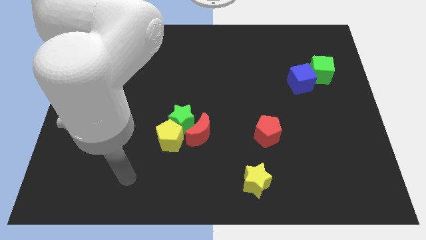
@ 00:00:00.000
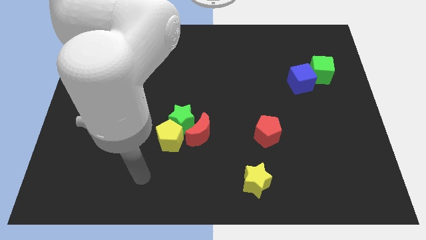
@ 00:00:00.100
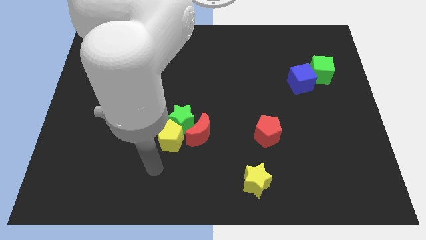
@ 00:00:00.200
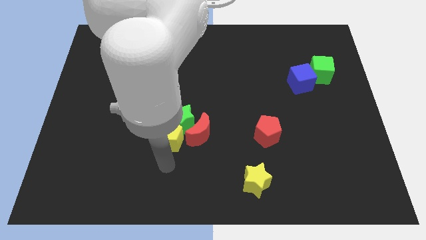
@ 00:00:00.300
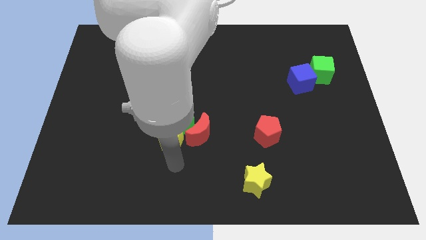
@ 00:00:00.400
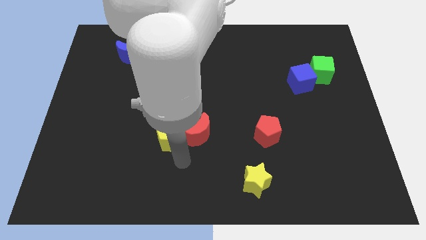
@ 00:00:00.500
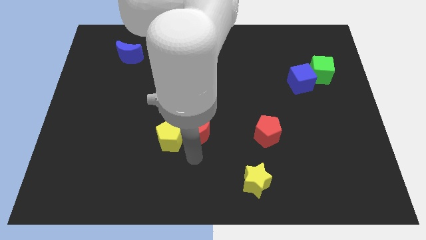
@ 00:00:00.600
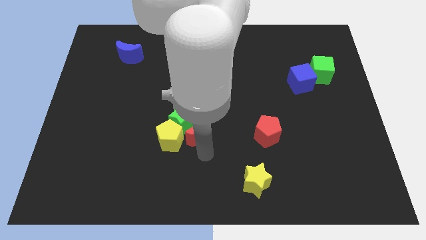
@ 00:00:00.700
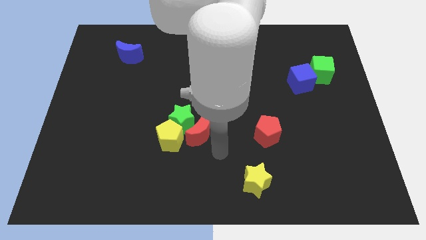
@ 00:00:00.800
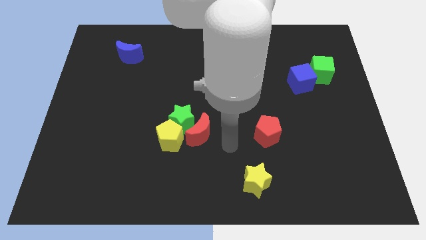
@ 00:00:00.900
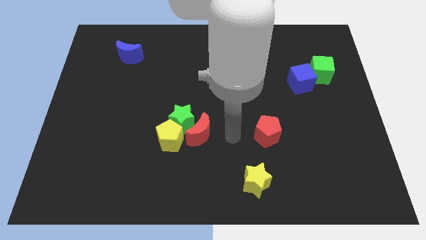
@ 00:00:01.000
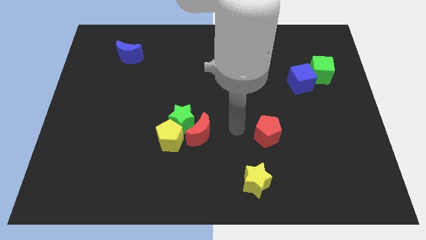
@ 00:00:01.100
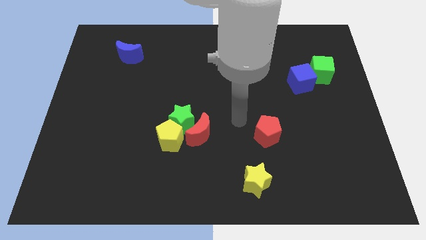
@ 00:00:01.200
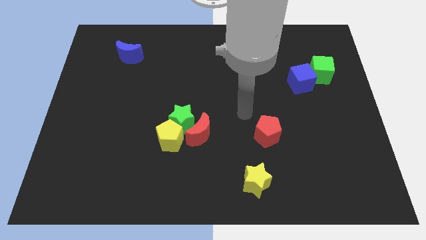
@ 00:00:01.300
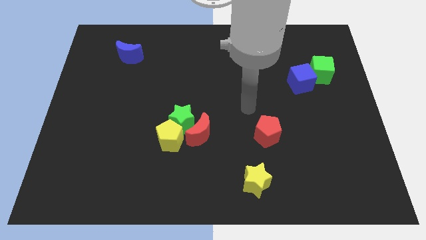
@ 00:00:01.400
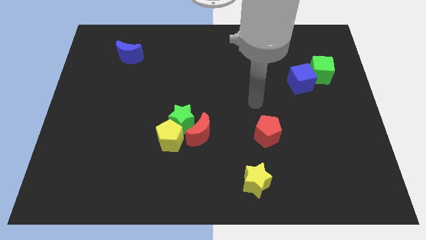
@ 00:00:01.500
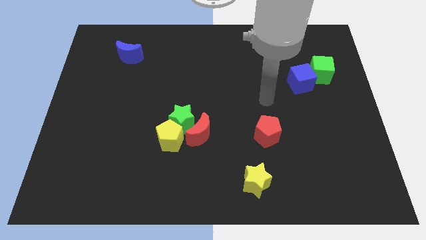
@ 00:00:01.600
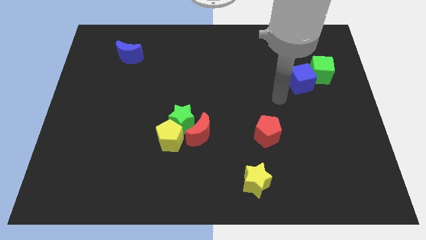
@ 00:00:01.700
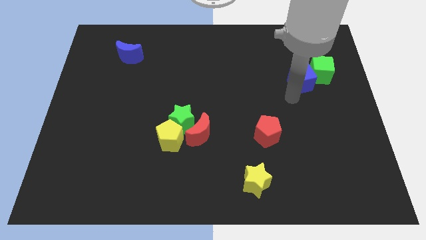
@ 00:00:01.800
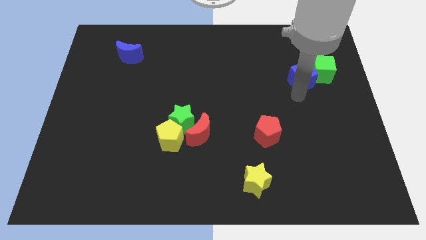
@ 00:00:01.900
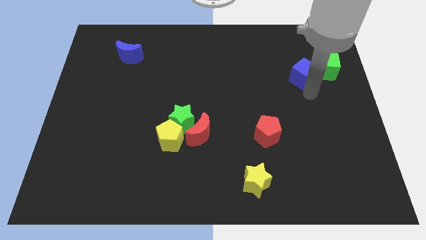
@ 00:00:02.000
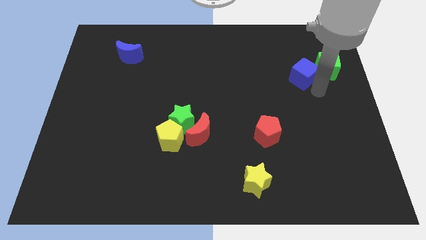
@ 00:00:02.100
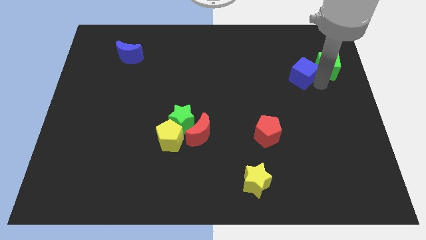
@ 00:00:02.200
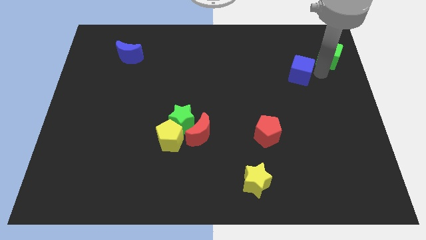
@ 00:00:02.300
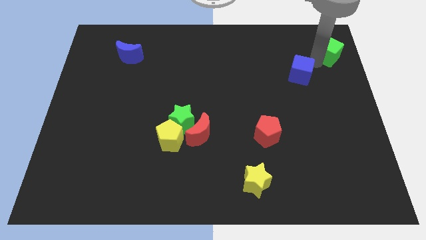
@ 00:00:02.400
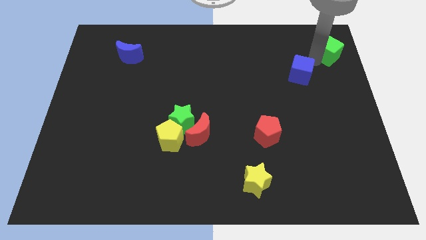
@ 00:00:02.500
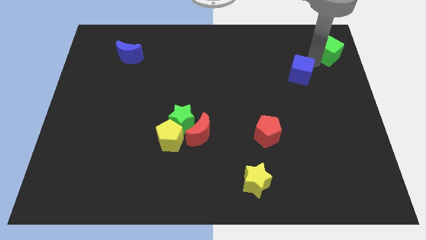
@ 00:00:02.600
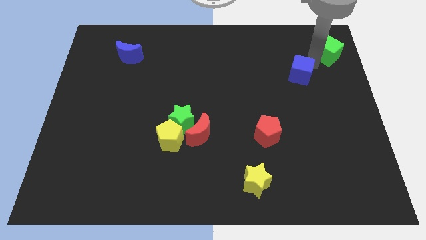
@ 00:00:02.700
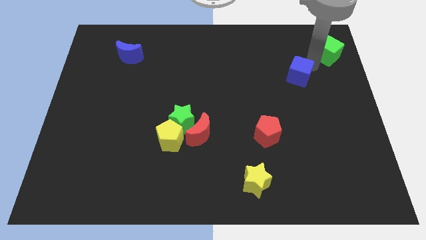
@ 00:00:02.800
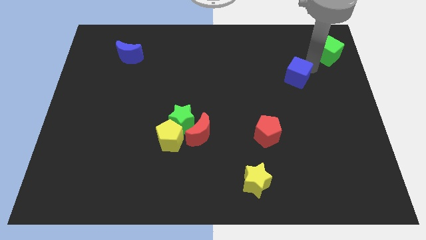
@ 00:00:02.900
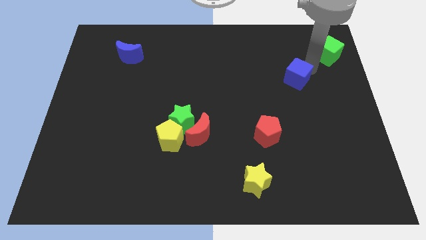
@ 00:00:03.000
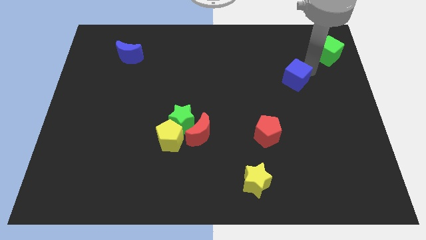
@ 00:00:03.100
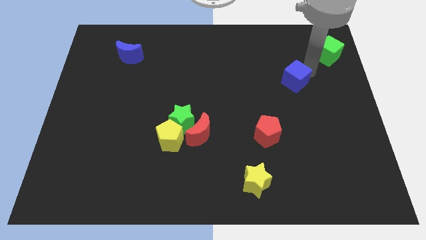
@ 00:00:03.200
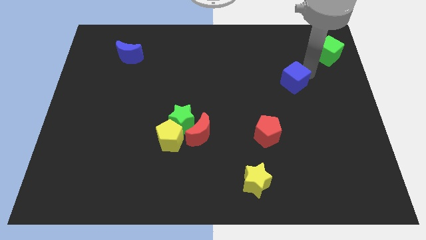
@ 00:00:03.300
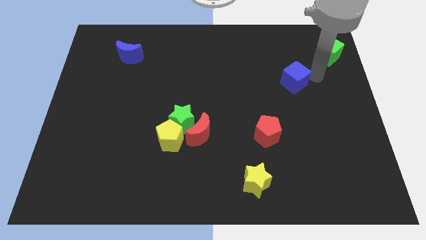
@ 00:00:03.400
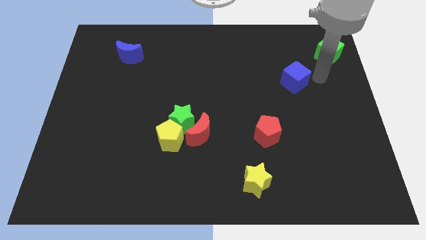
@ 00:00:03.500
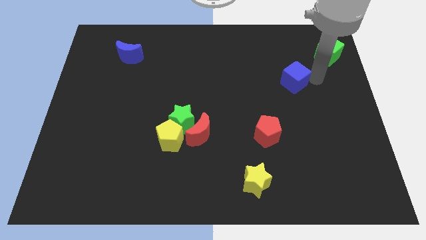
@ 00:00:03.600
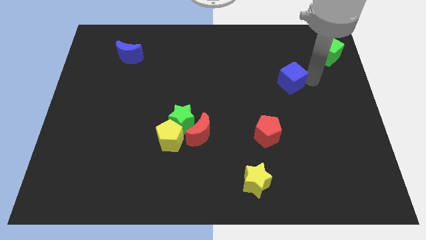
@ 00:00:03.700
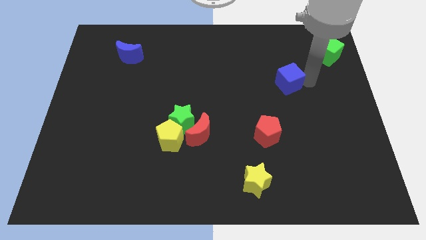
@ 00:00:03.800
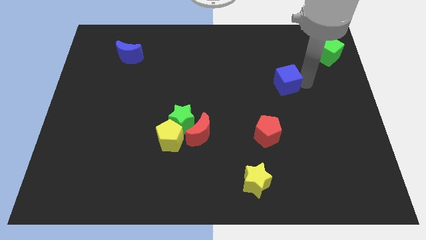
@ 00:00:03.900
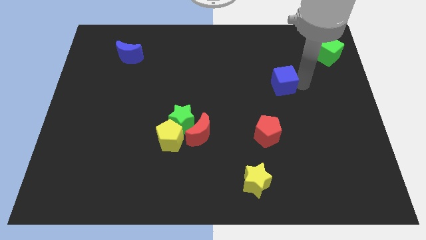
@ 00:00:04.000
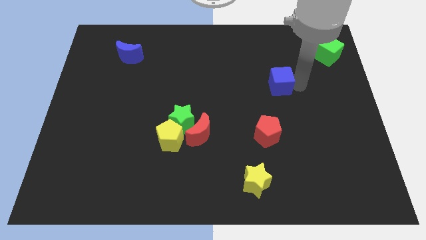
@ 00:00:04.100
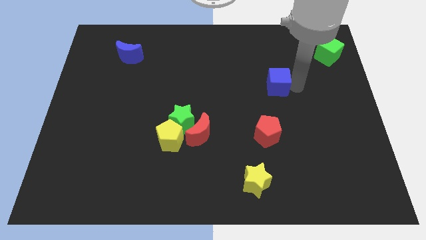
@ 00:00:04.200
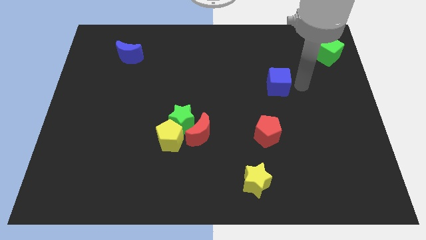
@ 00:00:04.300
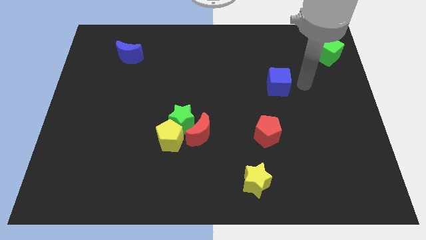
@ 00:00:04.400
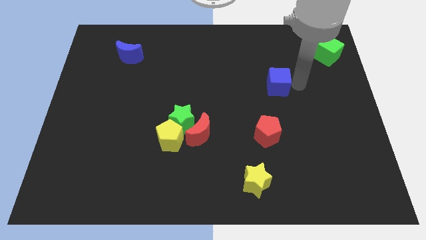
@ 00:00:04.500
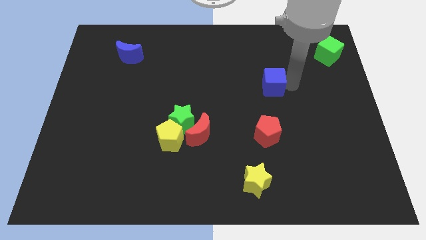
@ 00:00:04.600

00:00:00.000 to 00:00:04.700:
slightly move the blue cube left

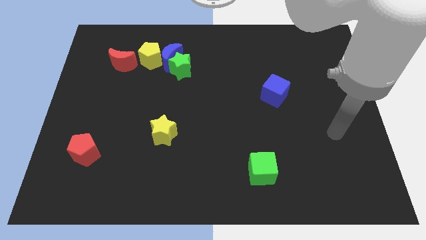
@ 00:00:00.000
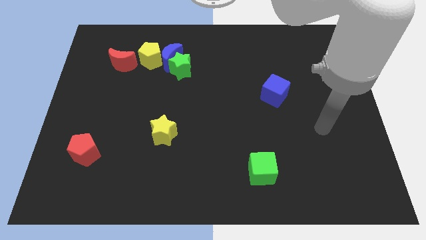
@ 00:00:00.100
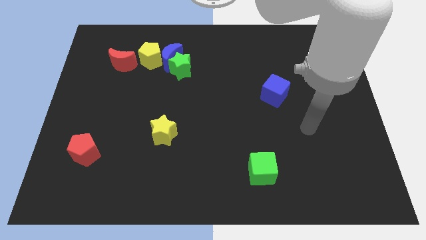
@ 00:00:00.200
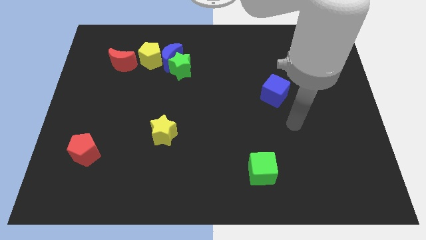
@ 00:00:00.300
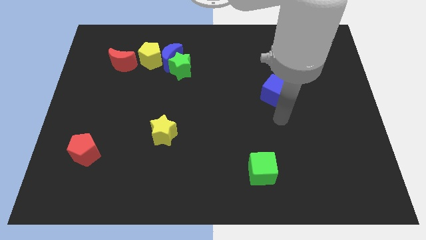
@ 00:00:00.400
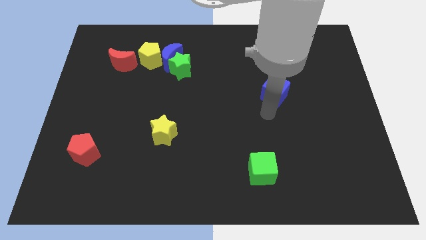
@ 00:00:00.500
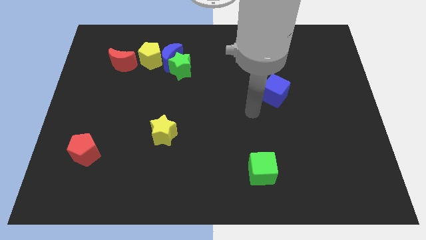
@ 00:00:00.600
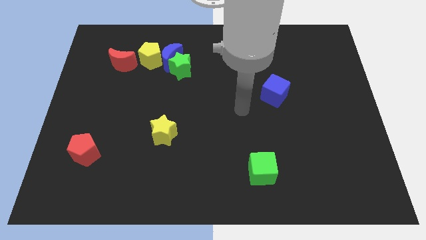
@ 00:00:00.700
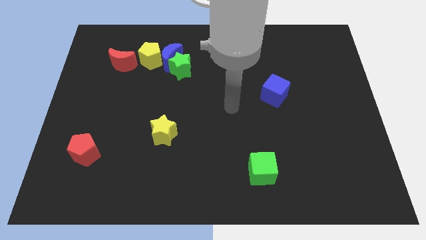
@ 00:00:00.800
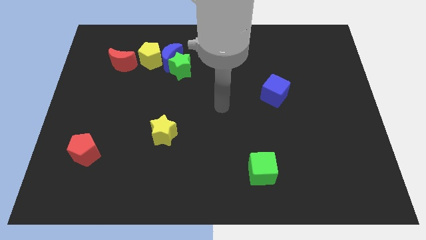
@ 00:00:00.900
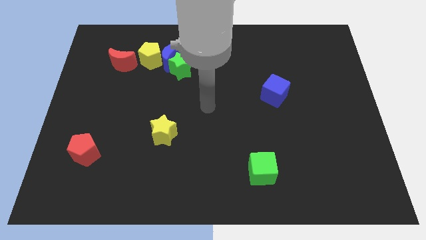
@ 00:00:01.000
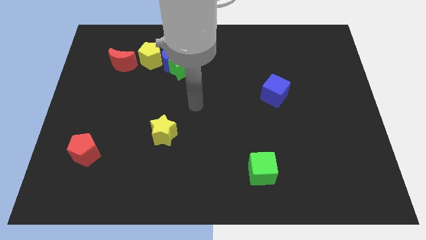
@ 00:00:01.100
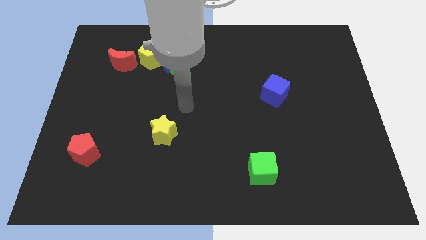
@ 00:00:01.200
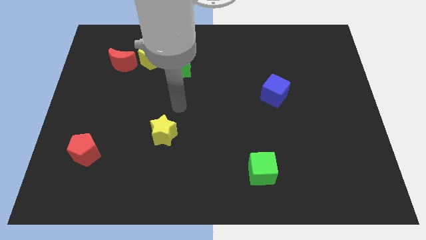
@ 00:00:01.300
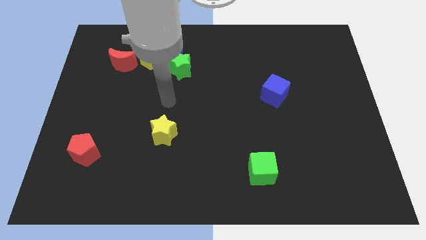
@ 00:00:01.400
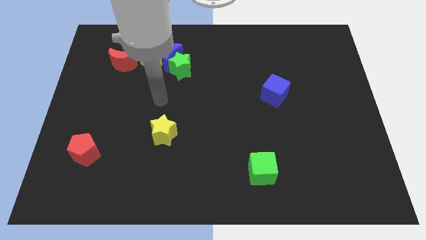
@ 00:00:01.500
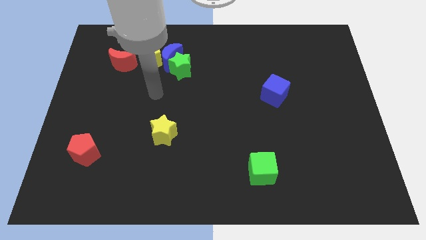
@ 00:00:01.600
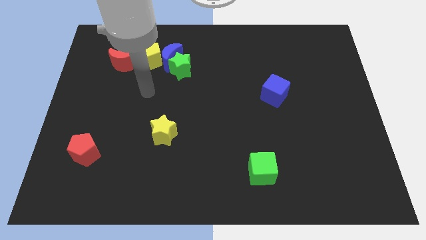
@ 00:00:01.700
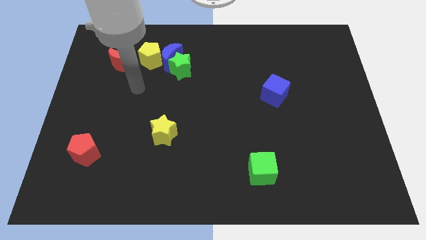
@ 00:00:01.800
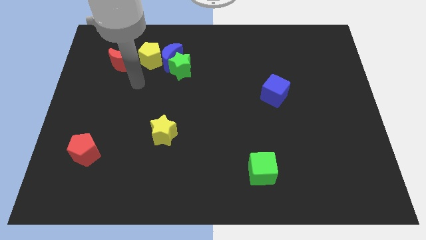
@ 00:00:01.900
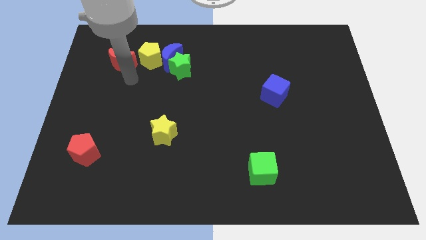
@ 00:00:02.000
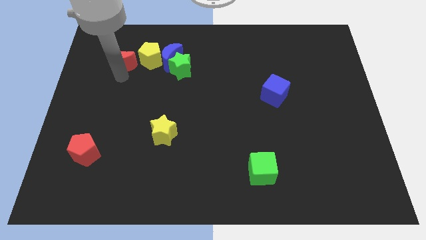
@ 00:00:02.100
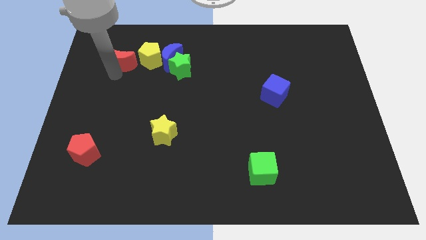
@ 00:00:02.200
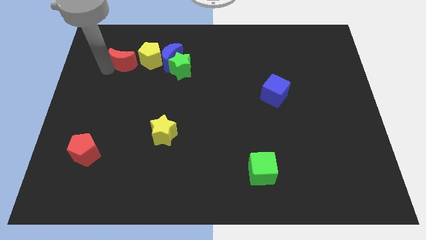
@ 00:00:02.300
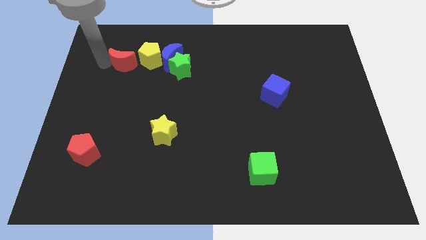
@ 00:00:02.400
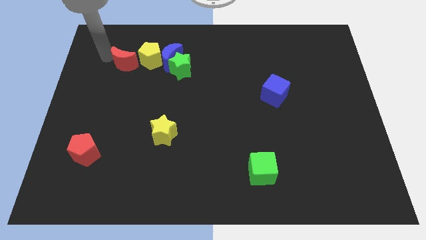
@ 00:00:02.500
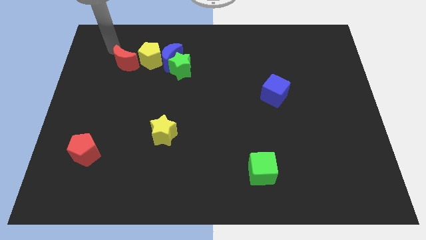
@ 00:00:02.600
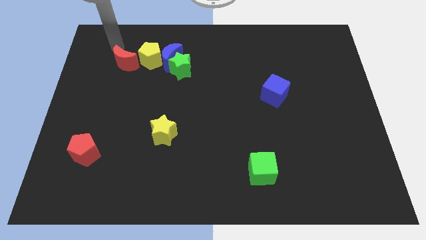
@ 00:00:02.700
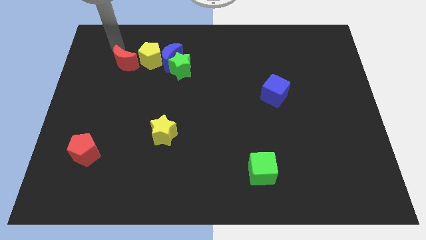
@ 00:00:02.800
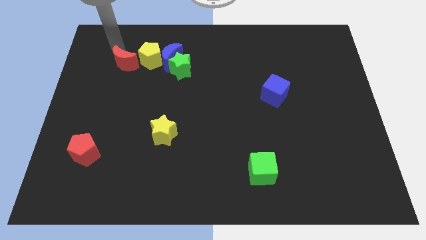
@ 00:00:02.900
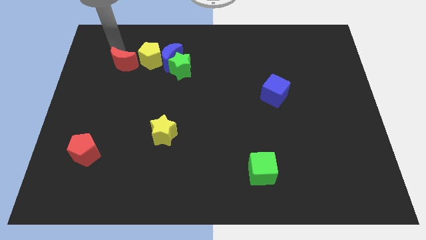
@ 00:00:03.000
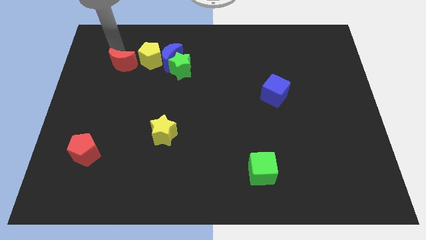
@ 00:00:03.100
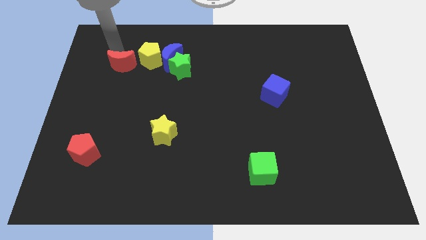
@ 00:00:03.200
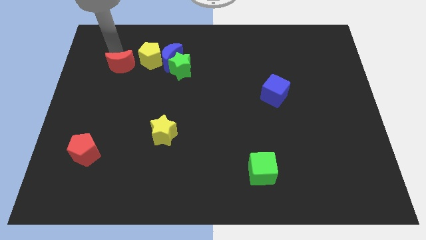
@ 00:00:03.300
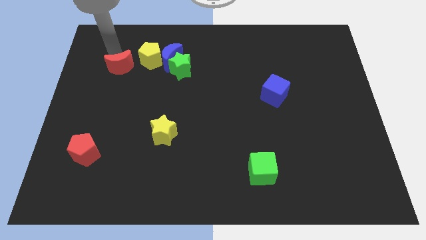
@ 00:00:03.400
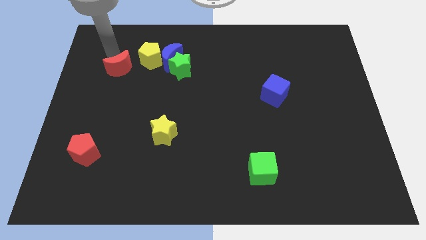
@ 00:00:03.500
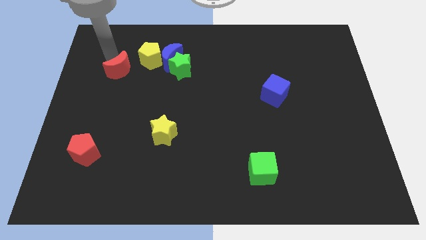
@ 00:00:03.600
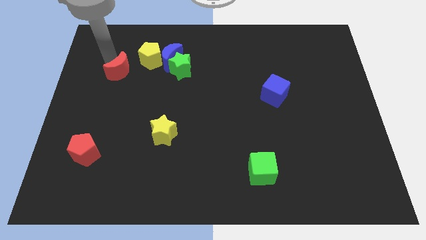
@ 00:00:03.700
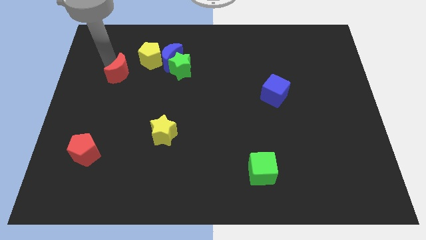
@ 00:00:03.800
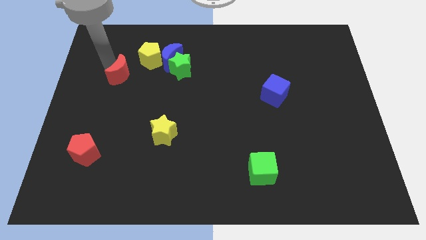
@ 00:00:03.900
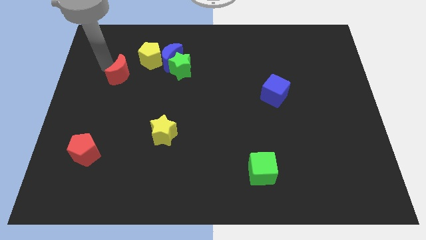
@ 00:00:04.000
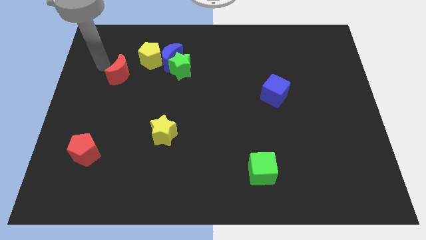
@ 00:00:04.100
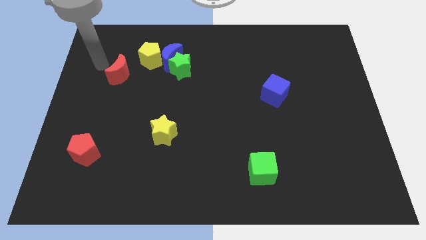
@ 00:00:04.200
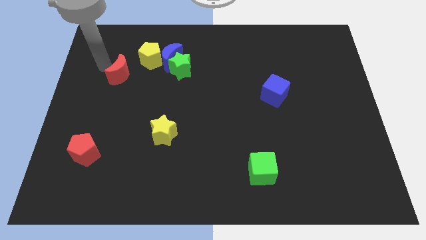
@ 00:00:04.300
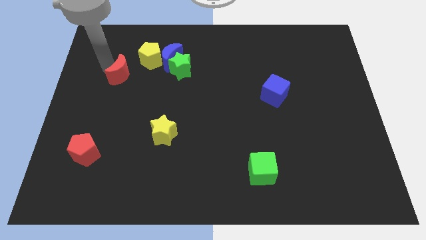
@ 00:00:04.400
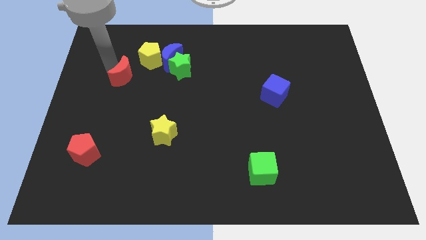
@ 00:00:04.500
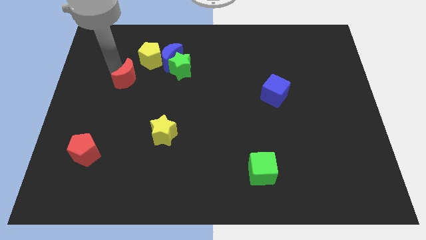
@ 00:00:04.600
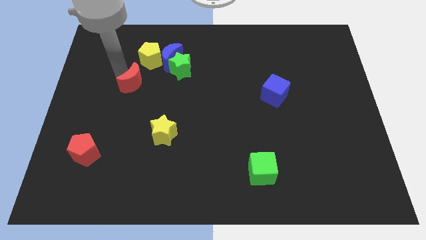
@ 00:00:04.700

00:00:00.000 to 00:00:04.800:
slightly move the red moon down and right
